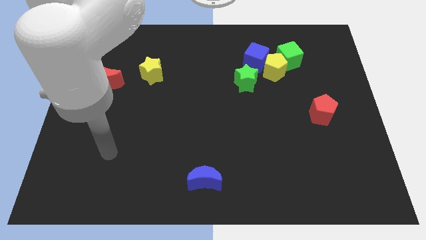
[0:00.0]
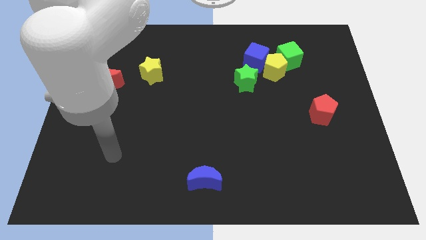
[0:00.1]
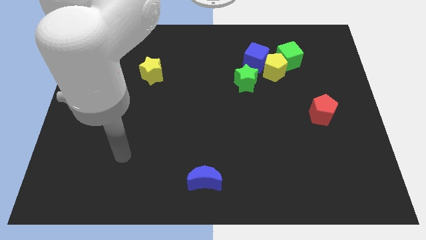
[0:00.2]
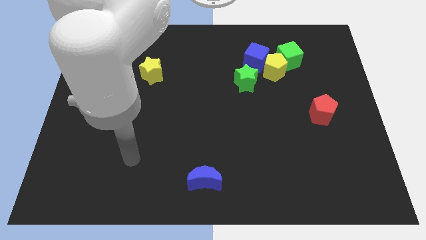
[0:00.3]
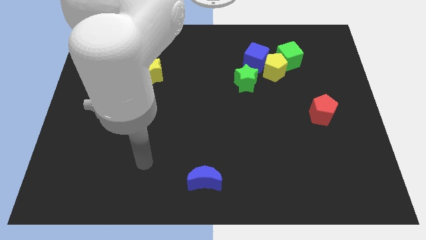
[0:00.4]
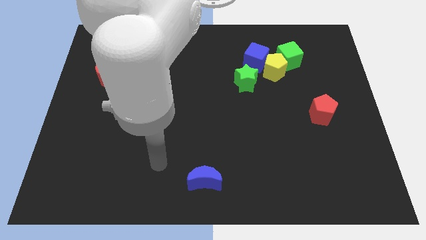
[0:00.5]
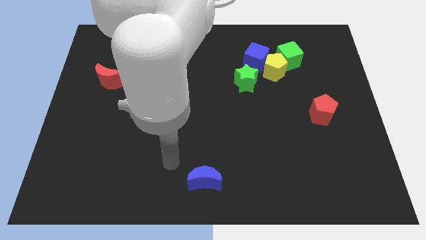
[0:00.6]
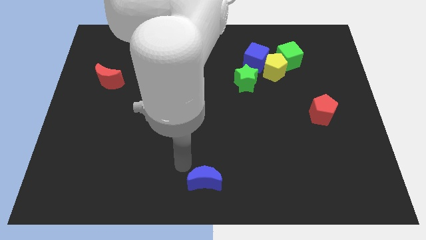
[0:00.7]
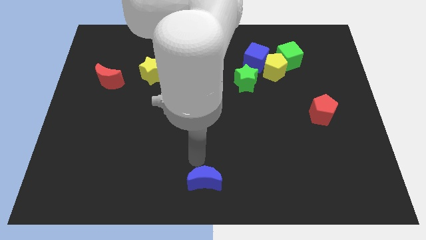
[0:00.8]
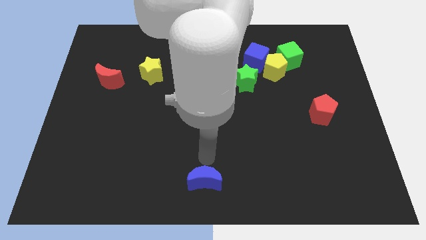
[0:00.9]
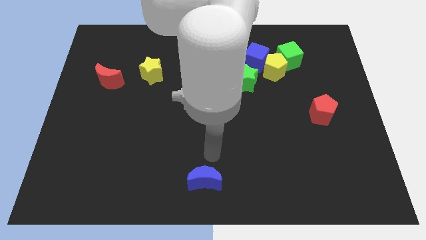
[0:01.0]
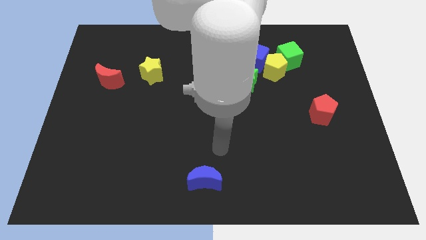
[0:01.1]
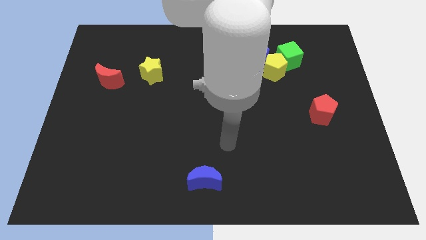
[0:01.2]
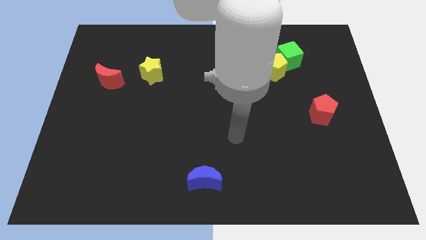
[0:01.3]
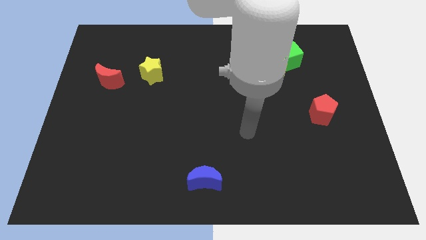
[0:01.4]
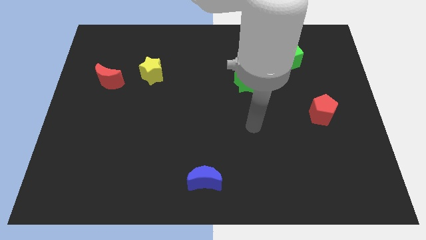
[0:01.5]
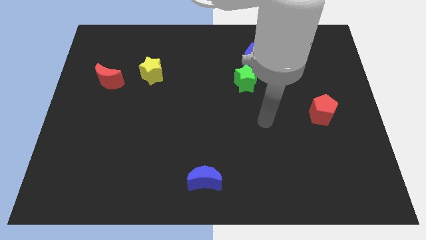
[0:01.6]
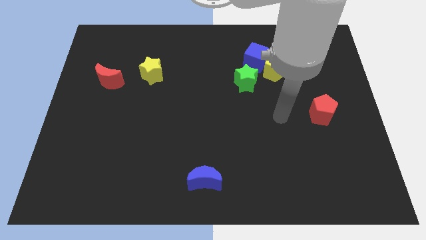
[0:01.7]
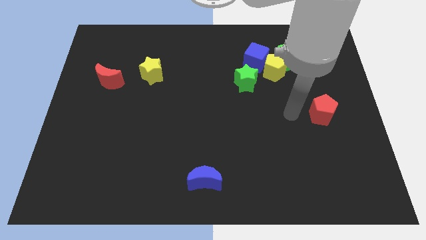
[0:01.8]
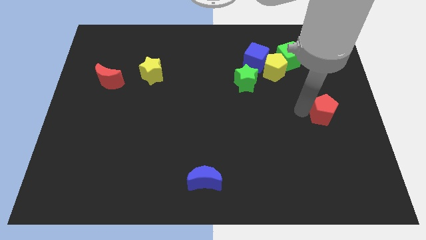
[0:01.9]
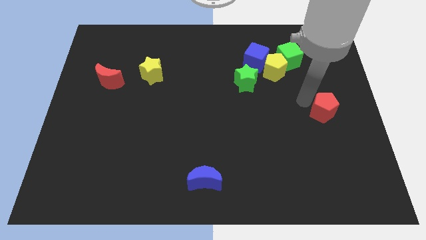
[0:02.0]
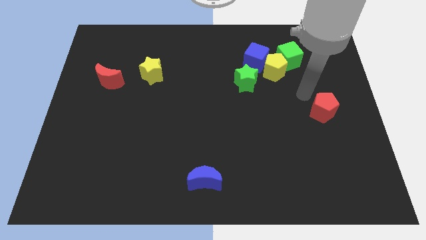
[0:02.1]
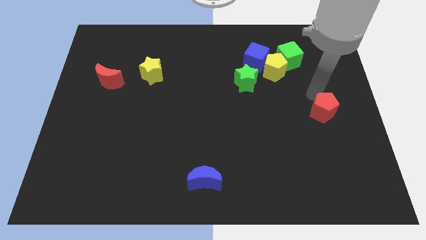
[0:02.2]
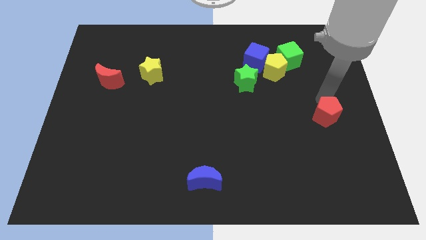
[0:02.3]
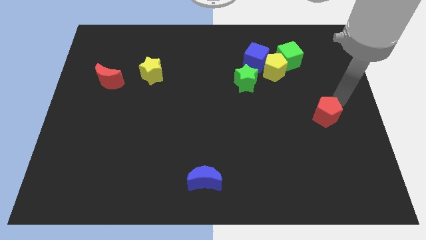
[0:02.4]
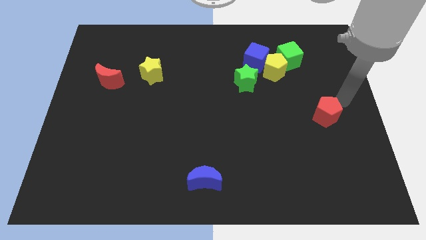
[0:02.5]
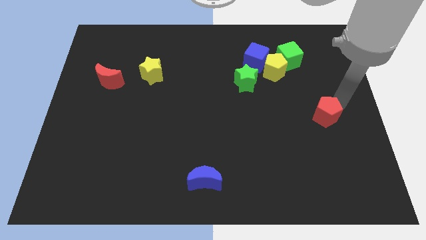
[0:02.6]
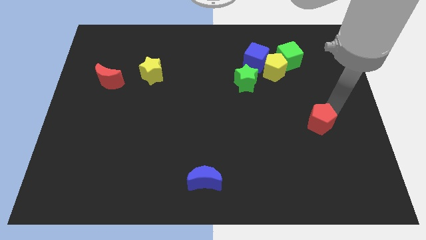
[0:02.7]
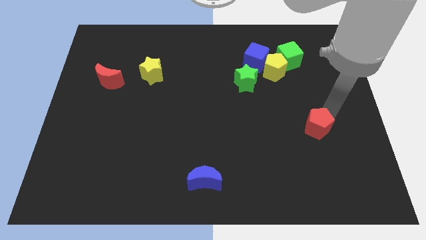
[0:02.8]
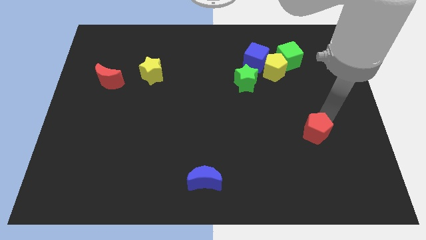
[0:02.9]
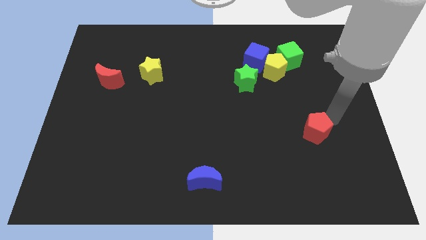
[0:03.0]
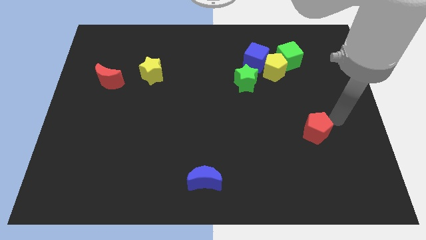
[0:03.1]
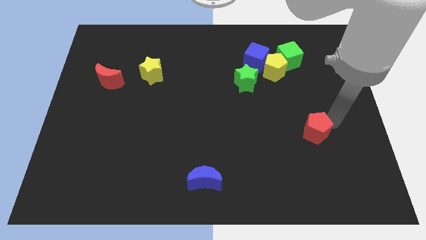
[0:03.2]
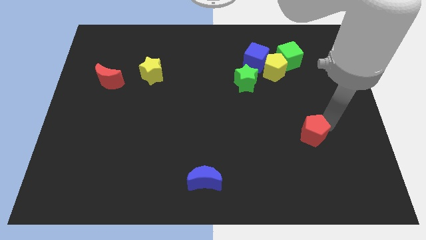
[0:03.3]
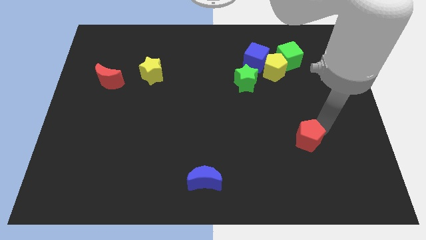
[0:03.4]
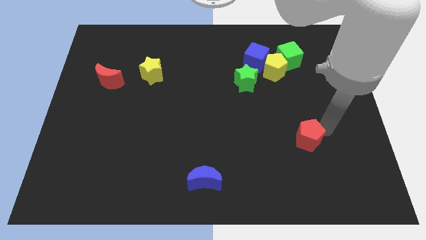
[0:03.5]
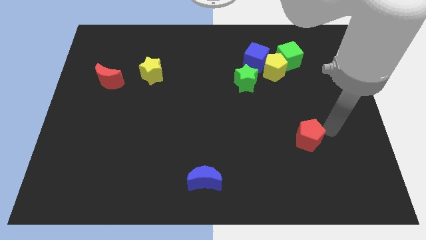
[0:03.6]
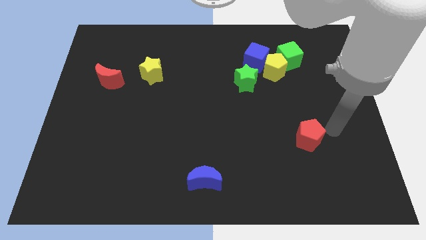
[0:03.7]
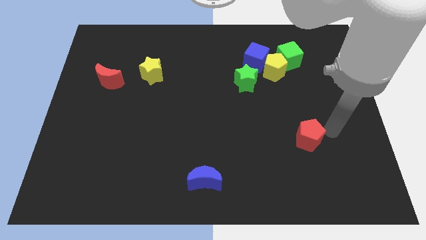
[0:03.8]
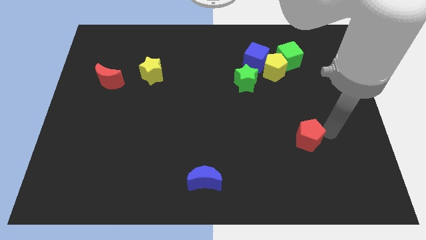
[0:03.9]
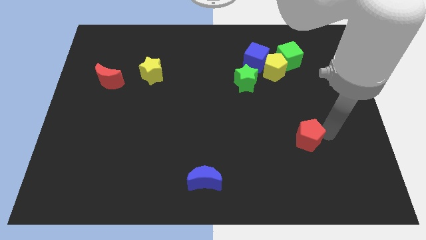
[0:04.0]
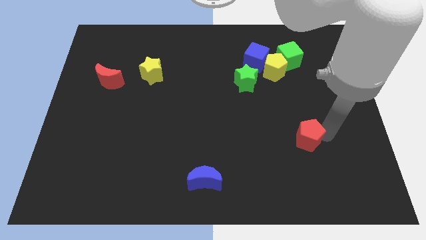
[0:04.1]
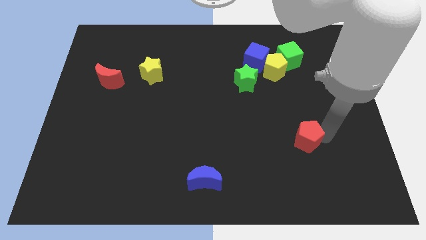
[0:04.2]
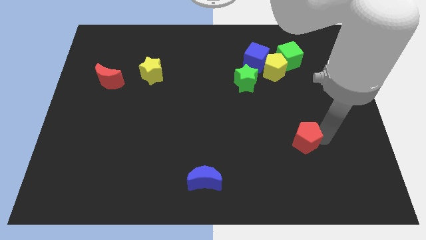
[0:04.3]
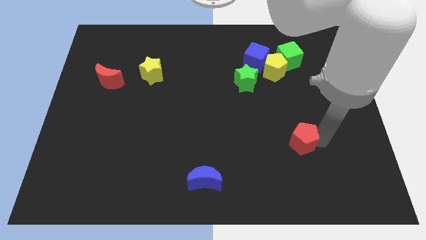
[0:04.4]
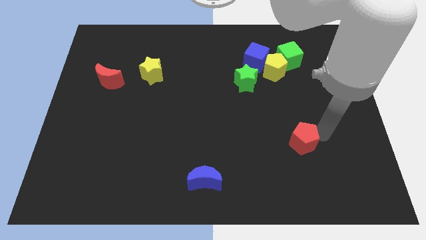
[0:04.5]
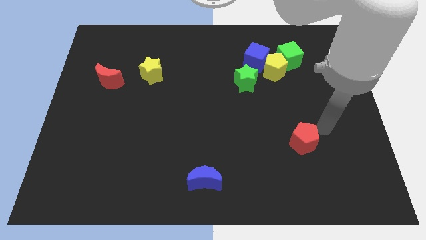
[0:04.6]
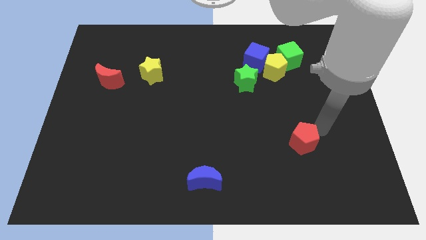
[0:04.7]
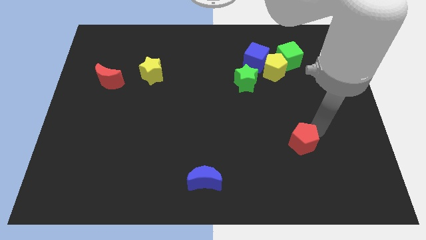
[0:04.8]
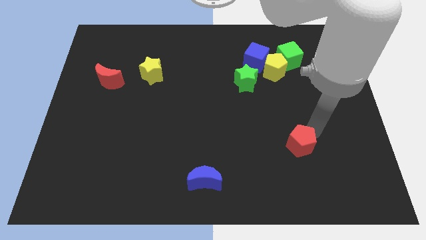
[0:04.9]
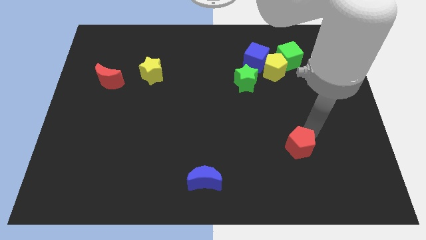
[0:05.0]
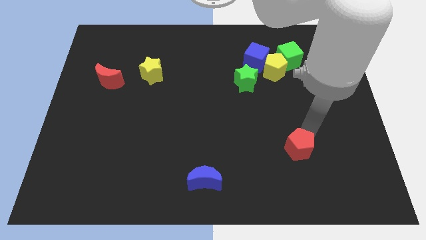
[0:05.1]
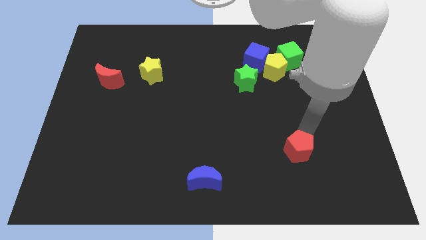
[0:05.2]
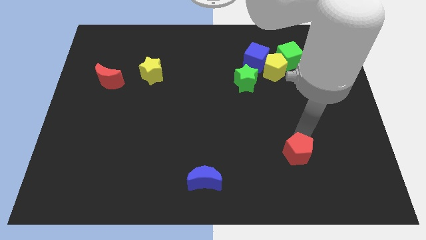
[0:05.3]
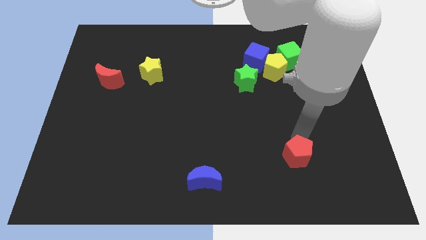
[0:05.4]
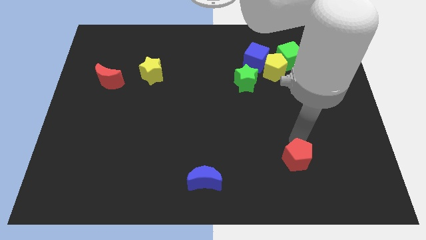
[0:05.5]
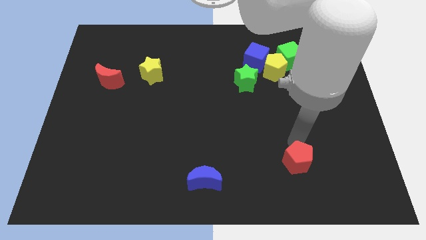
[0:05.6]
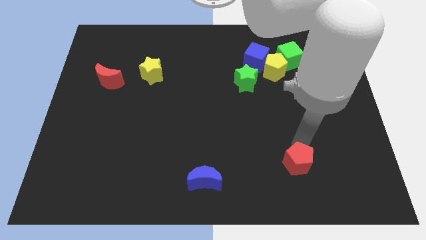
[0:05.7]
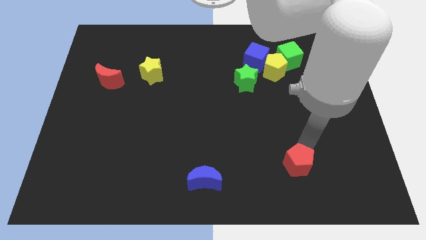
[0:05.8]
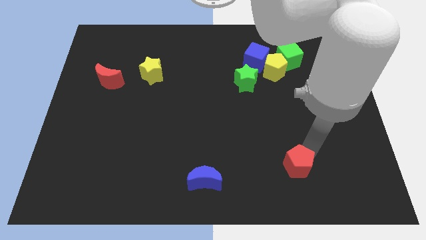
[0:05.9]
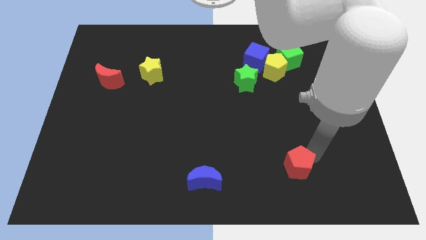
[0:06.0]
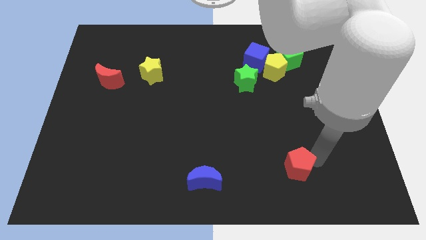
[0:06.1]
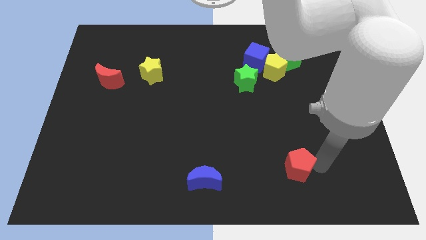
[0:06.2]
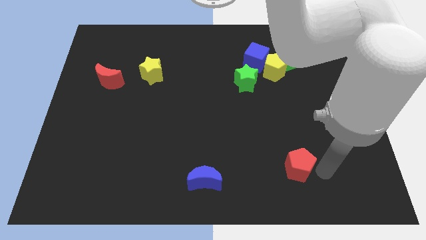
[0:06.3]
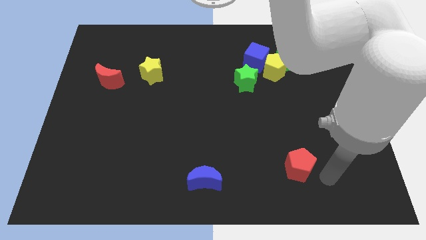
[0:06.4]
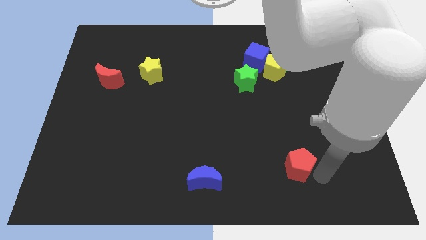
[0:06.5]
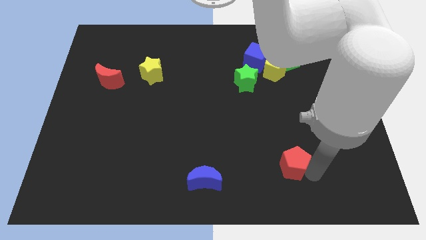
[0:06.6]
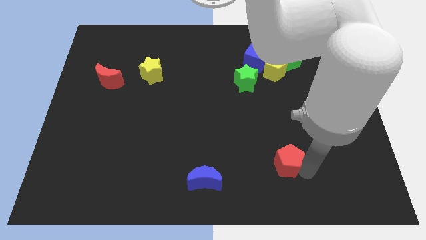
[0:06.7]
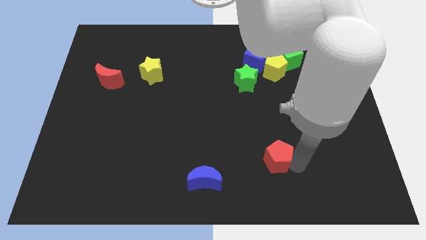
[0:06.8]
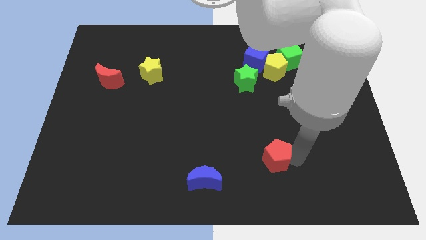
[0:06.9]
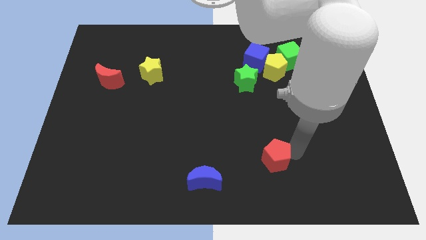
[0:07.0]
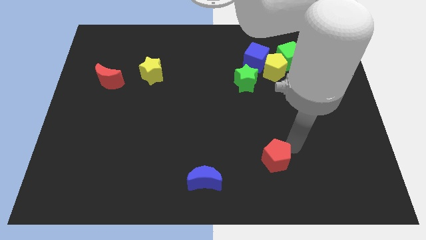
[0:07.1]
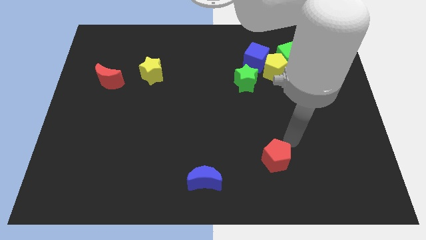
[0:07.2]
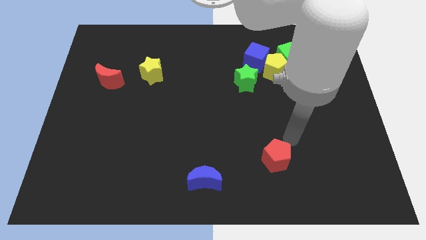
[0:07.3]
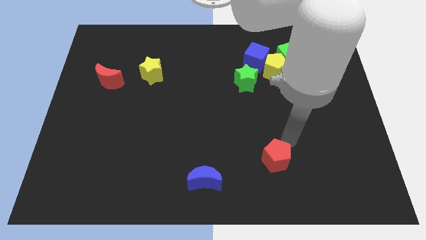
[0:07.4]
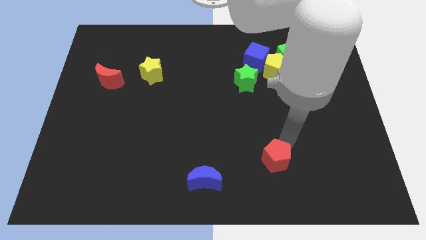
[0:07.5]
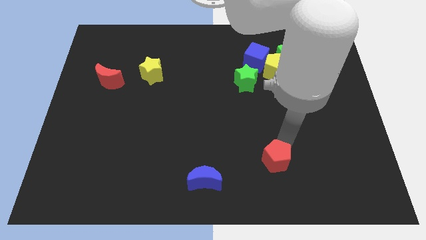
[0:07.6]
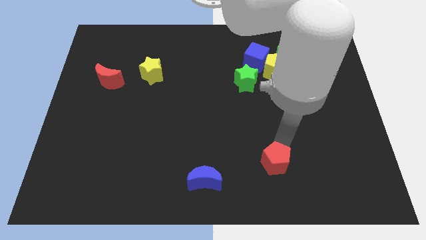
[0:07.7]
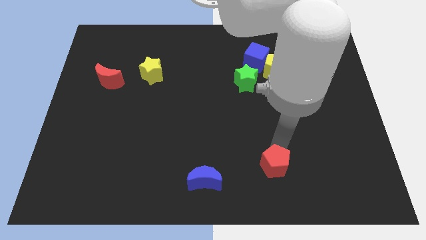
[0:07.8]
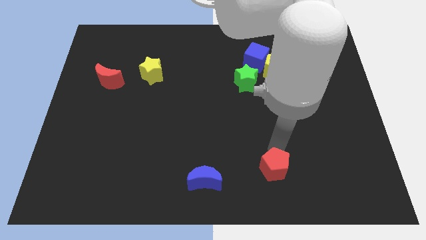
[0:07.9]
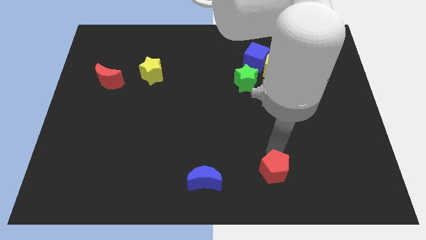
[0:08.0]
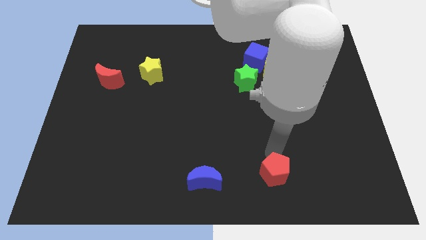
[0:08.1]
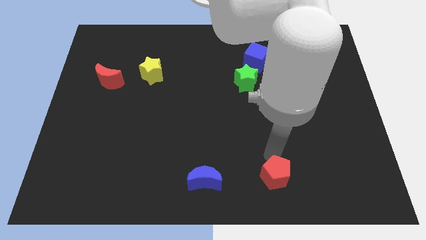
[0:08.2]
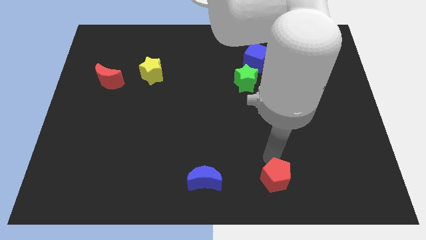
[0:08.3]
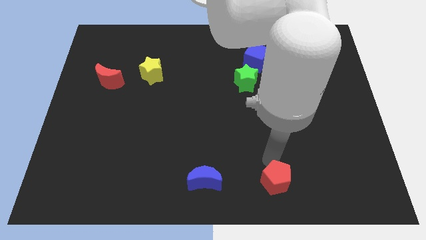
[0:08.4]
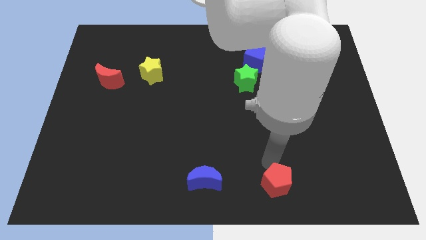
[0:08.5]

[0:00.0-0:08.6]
push the red pentagon to the bottom
